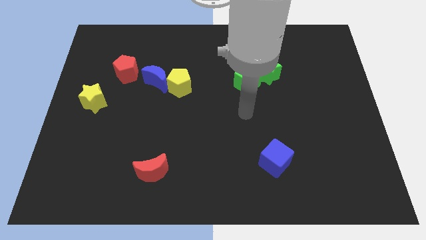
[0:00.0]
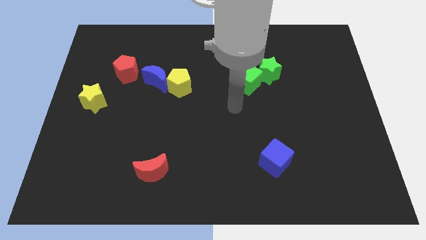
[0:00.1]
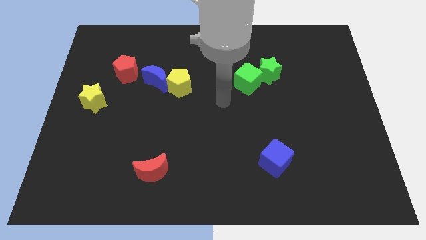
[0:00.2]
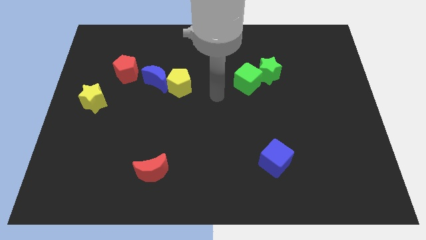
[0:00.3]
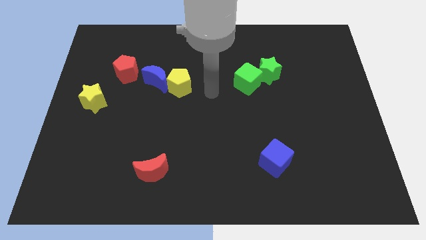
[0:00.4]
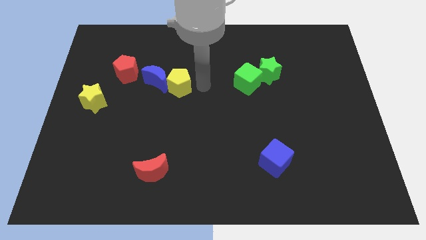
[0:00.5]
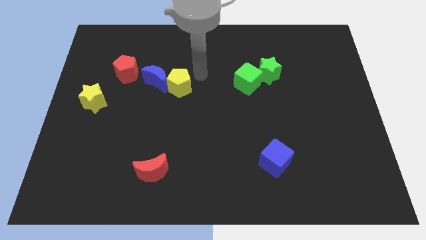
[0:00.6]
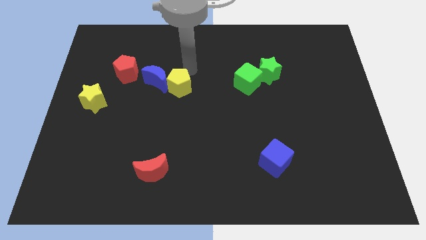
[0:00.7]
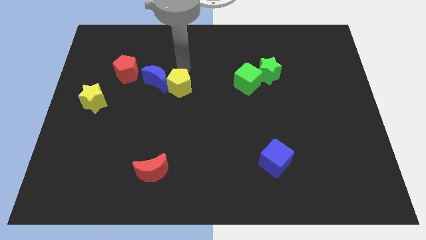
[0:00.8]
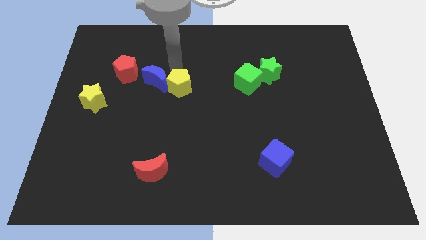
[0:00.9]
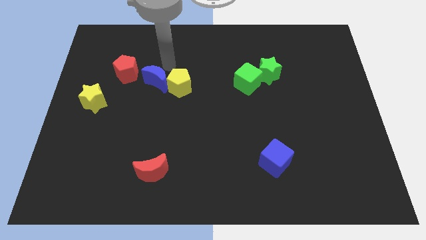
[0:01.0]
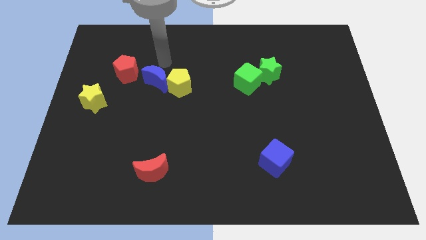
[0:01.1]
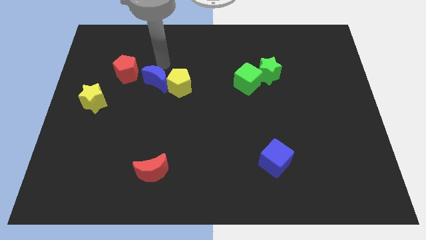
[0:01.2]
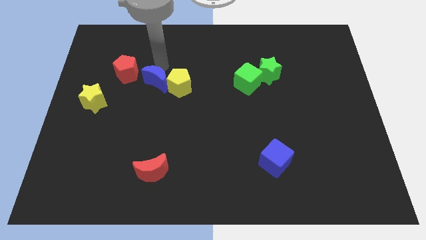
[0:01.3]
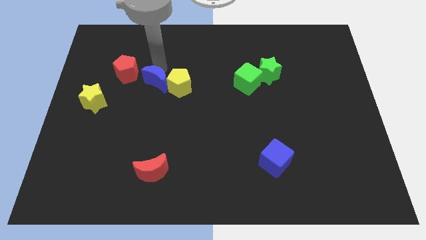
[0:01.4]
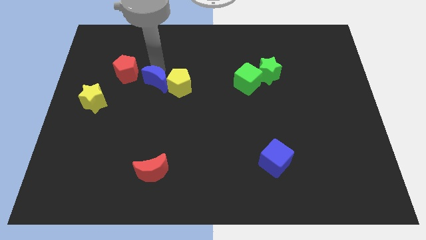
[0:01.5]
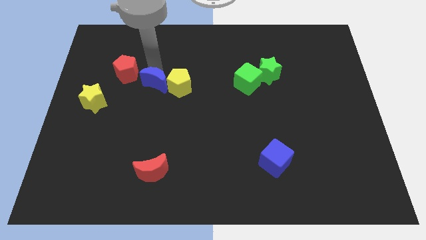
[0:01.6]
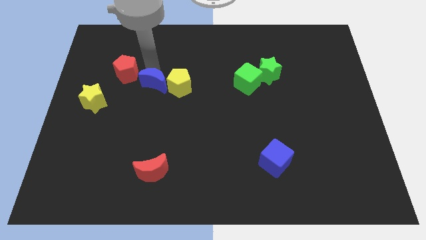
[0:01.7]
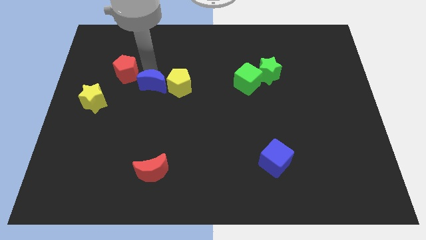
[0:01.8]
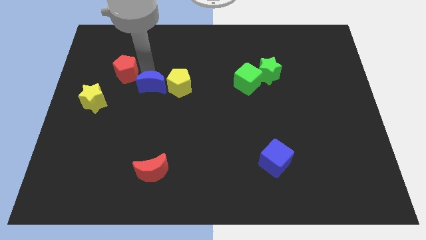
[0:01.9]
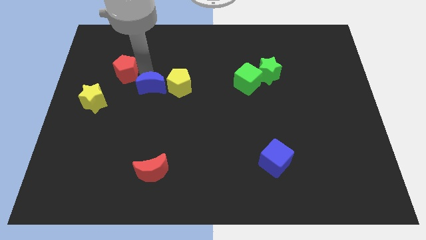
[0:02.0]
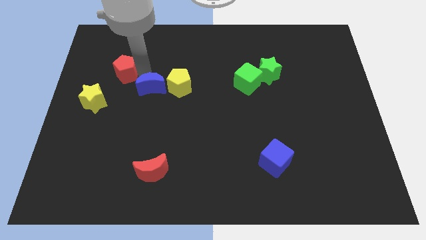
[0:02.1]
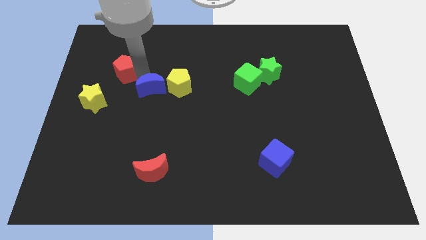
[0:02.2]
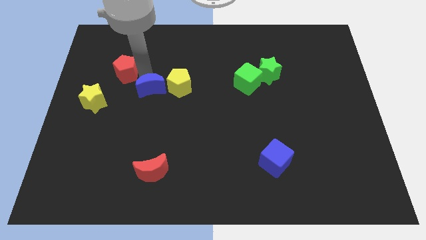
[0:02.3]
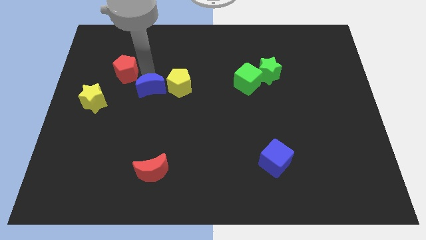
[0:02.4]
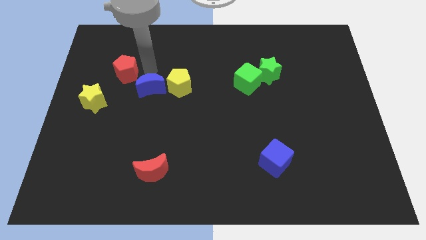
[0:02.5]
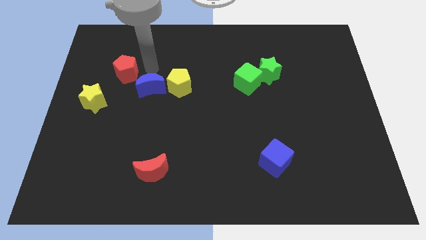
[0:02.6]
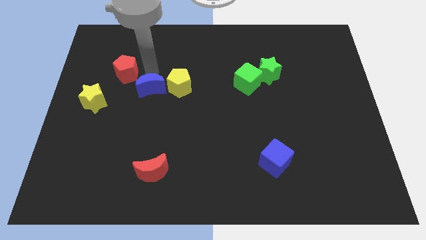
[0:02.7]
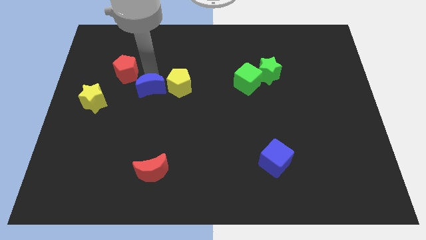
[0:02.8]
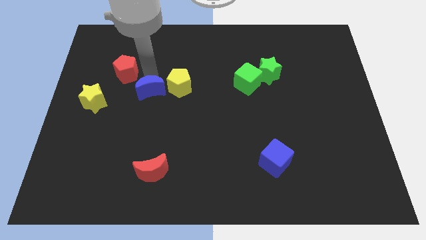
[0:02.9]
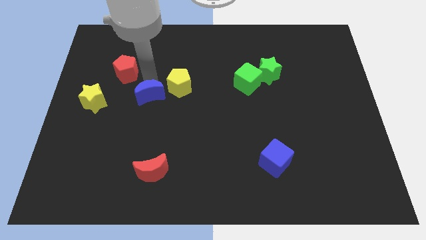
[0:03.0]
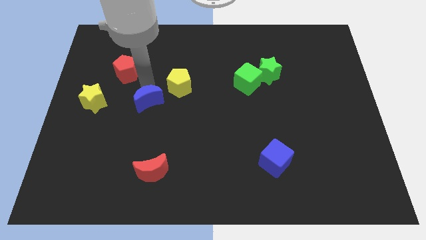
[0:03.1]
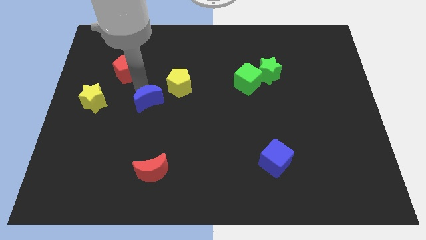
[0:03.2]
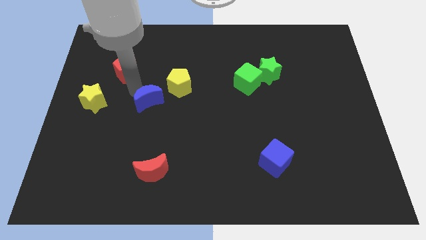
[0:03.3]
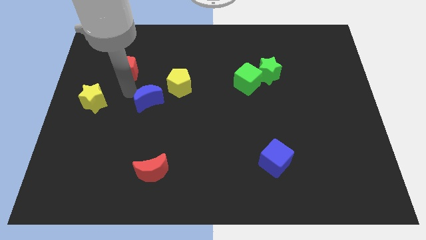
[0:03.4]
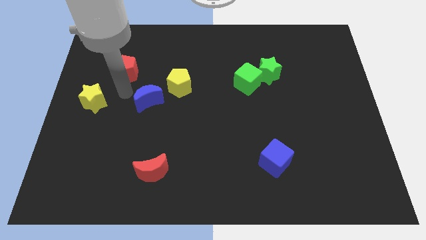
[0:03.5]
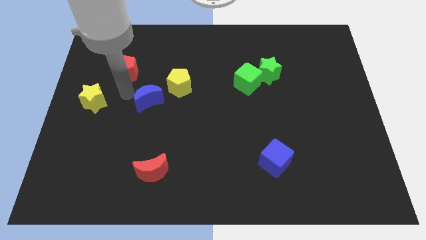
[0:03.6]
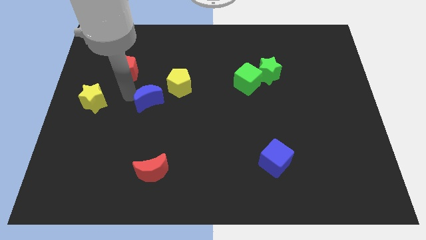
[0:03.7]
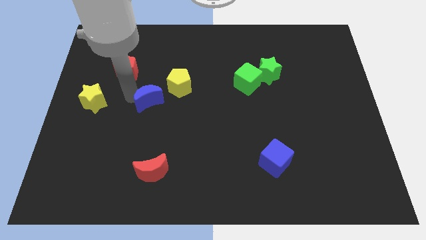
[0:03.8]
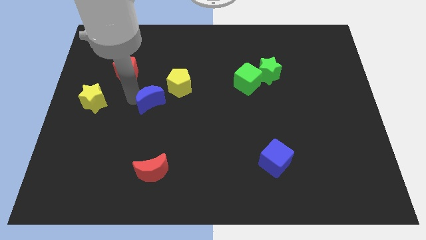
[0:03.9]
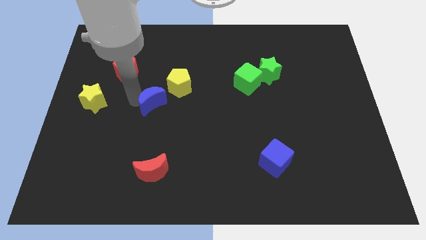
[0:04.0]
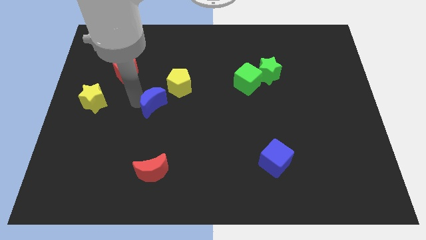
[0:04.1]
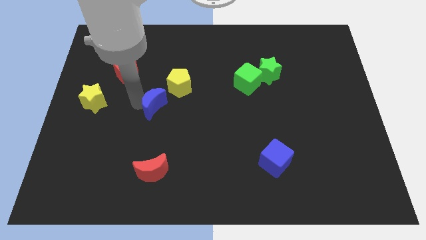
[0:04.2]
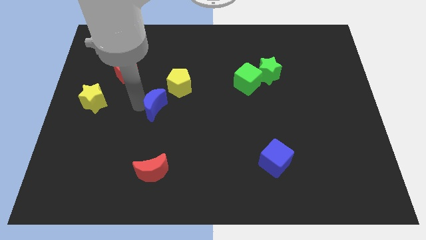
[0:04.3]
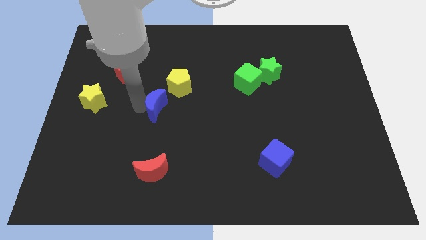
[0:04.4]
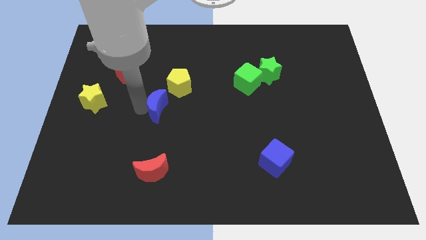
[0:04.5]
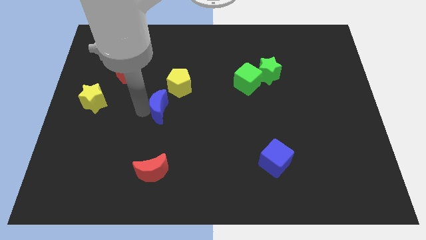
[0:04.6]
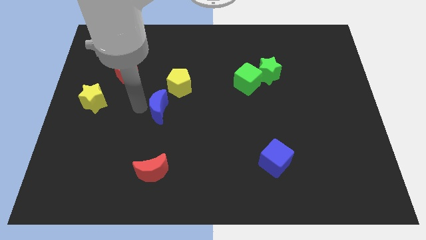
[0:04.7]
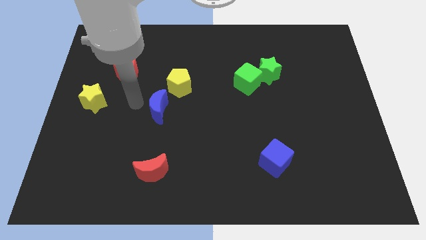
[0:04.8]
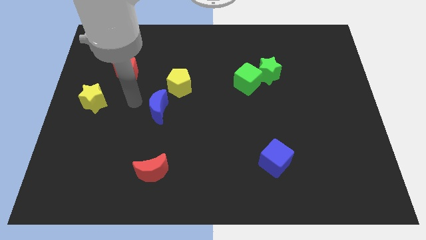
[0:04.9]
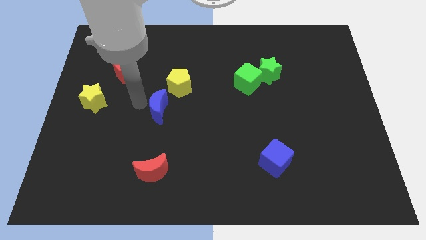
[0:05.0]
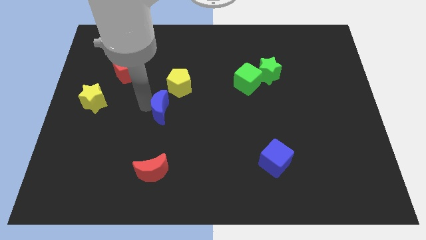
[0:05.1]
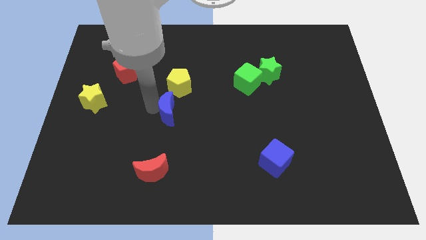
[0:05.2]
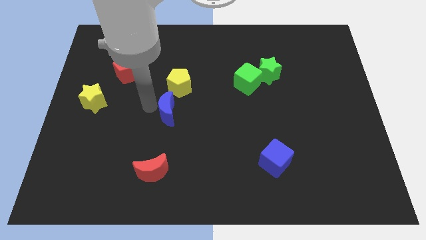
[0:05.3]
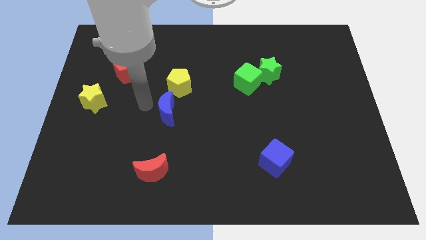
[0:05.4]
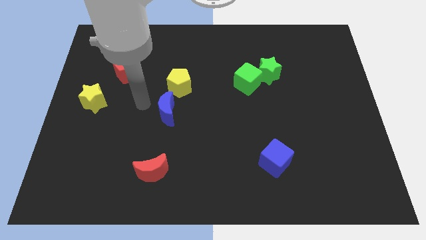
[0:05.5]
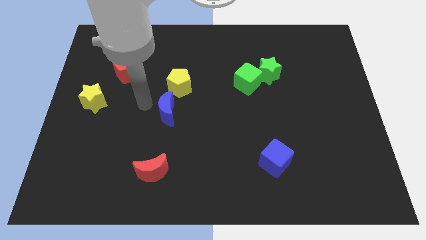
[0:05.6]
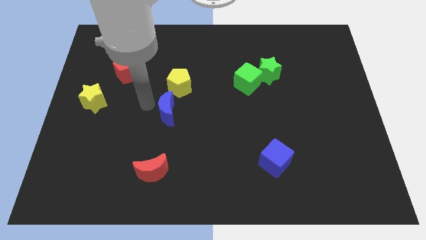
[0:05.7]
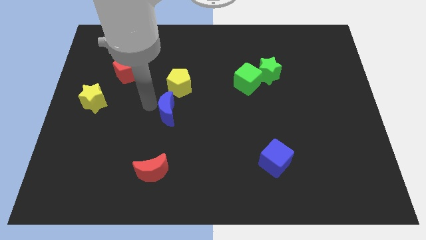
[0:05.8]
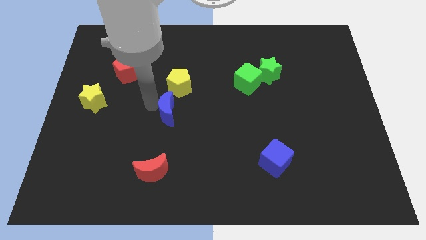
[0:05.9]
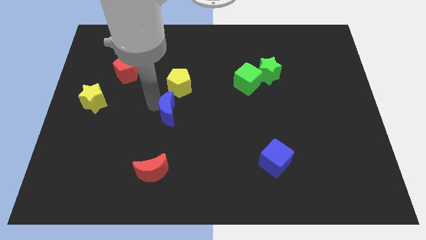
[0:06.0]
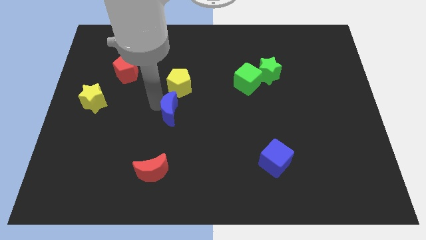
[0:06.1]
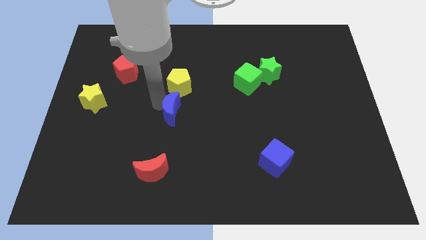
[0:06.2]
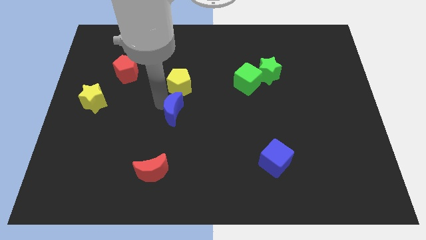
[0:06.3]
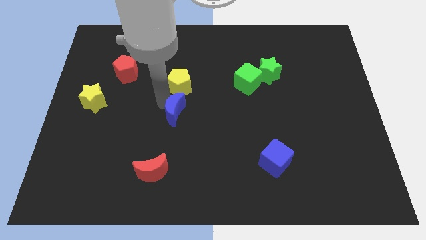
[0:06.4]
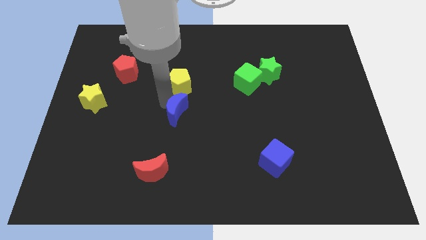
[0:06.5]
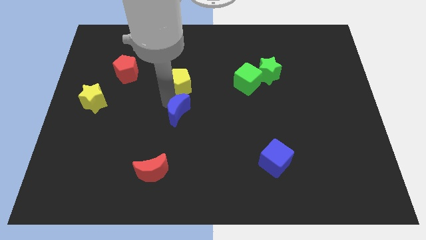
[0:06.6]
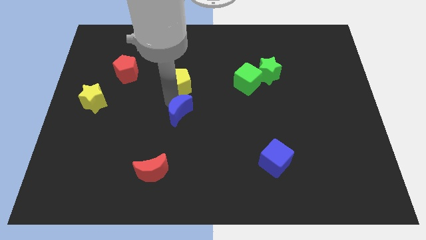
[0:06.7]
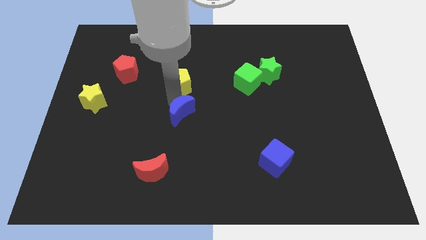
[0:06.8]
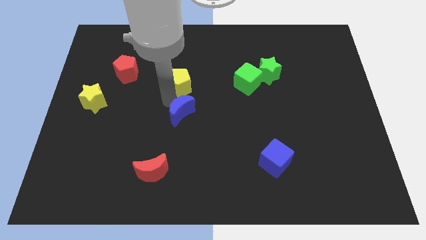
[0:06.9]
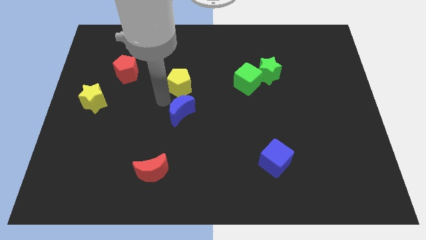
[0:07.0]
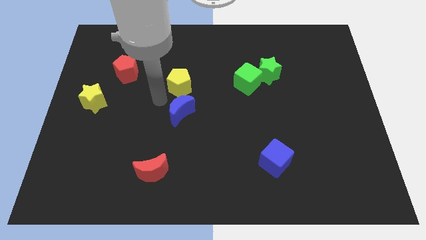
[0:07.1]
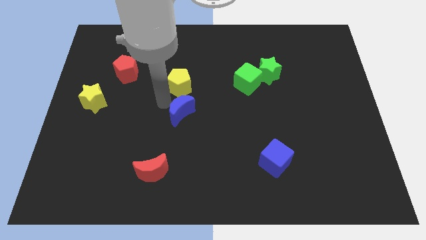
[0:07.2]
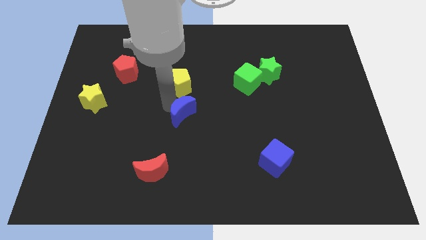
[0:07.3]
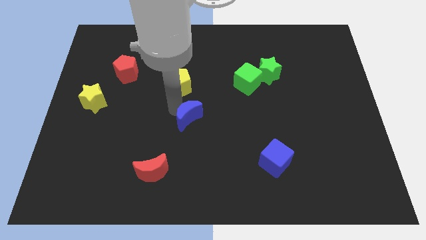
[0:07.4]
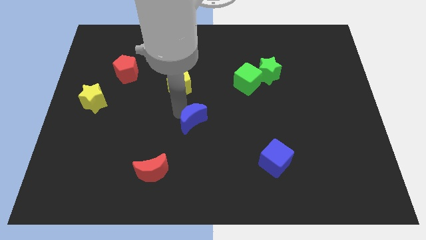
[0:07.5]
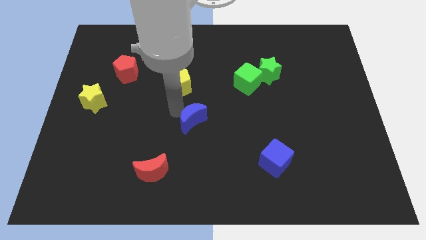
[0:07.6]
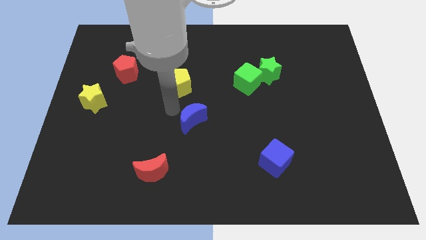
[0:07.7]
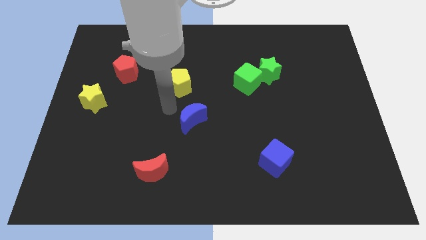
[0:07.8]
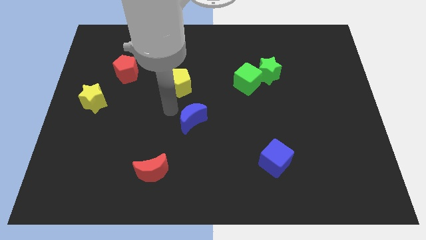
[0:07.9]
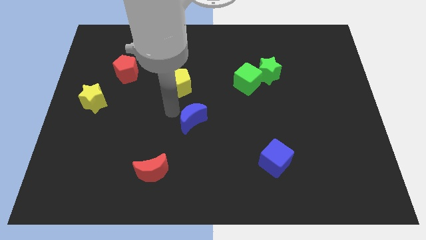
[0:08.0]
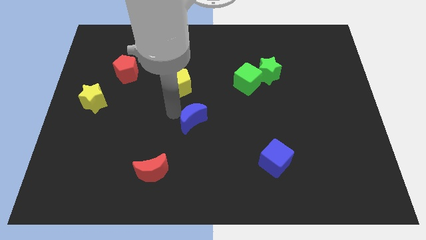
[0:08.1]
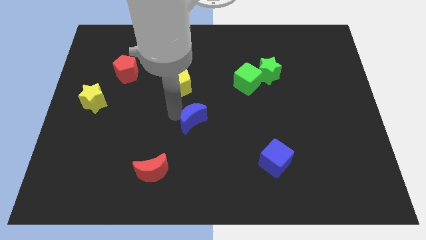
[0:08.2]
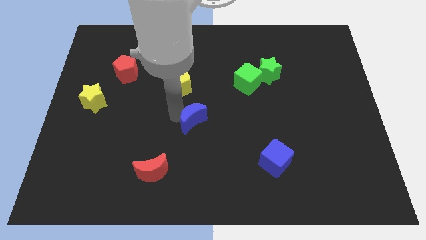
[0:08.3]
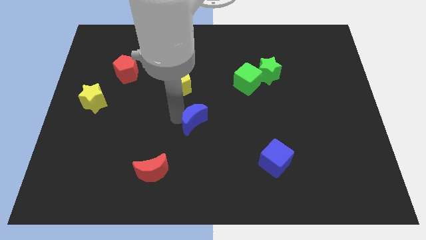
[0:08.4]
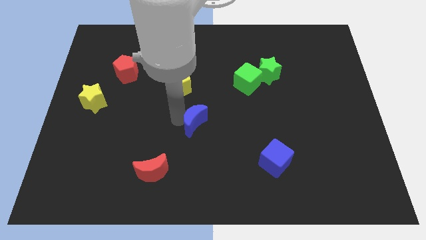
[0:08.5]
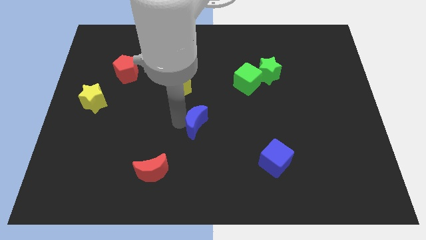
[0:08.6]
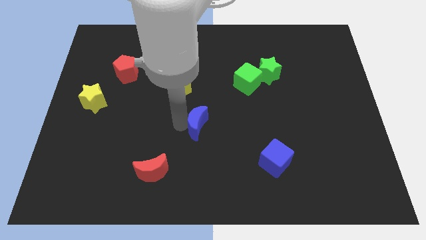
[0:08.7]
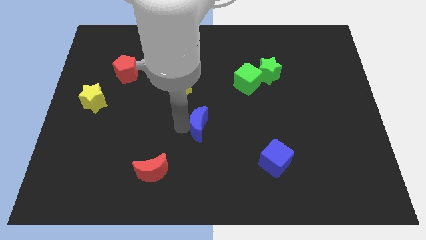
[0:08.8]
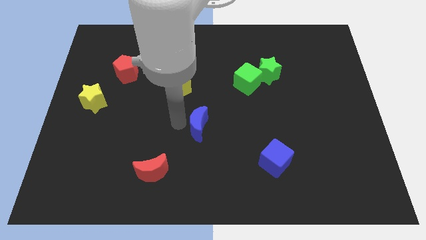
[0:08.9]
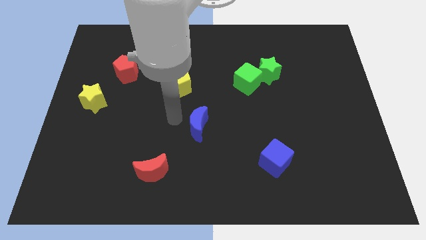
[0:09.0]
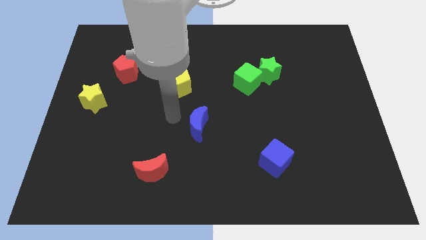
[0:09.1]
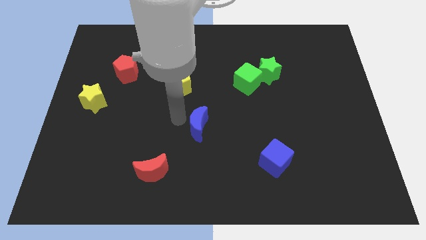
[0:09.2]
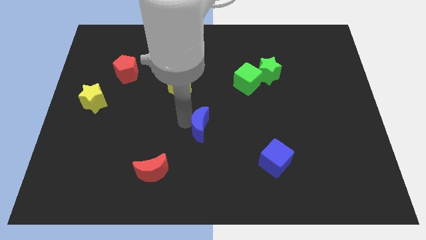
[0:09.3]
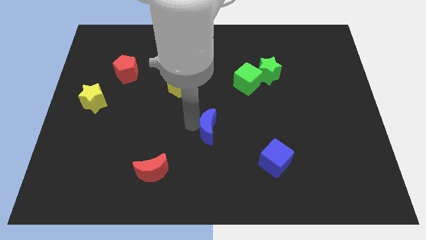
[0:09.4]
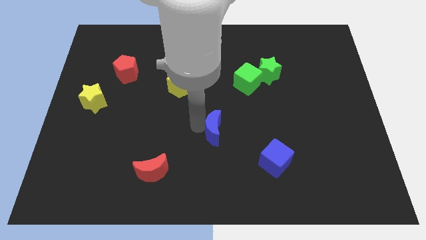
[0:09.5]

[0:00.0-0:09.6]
move the blue moon down and then to the right
